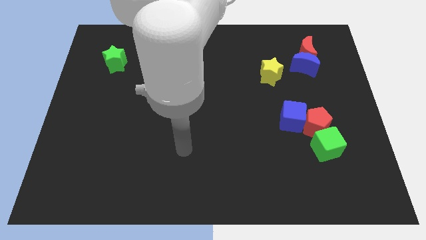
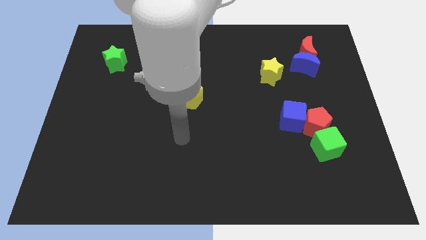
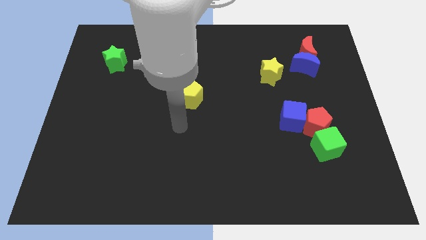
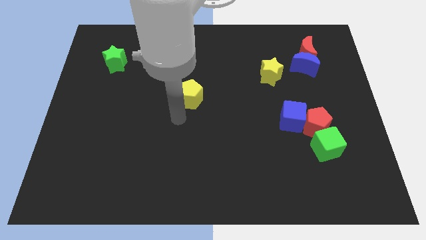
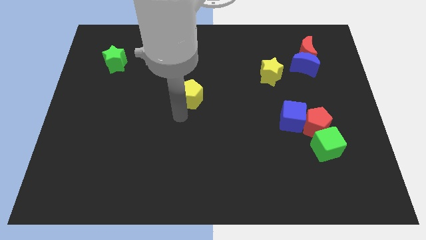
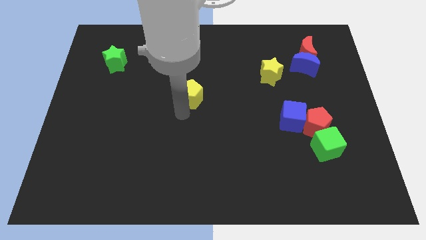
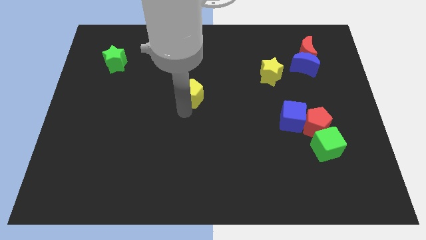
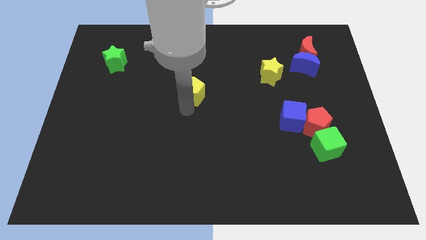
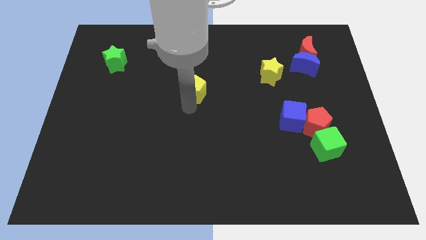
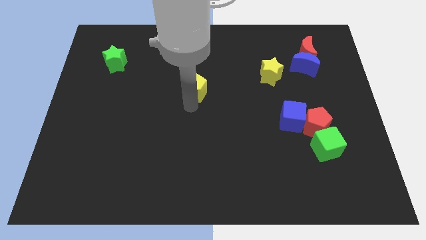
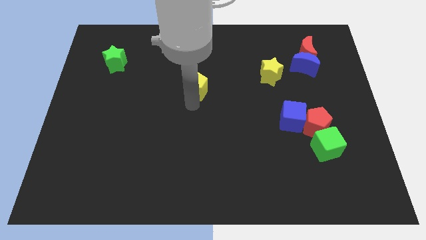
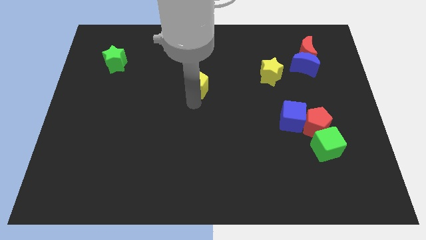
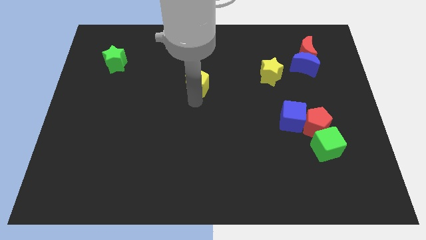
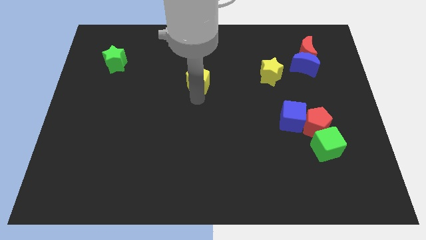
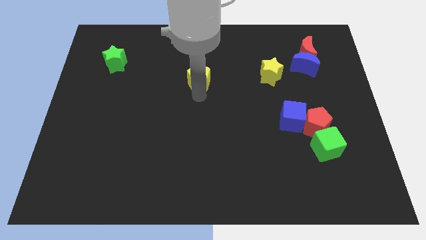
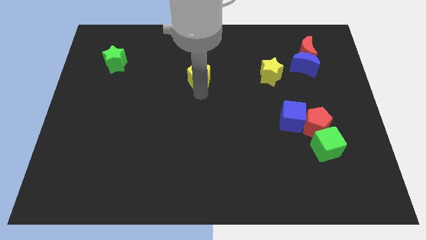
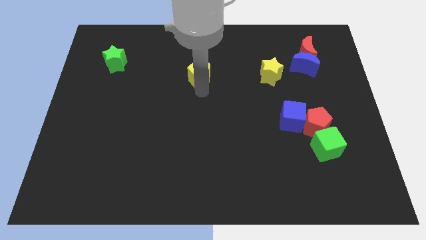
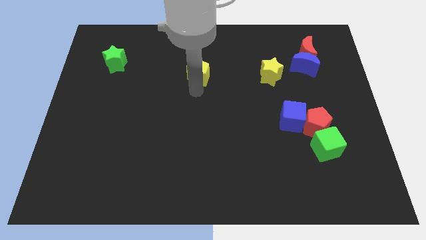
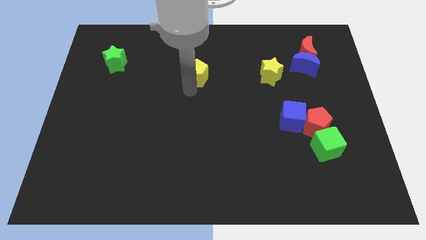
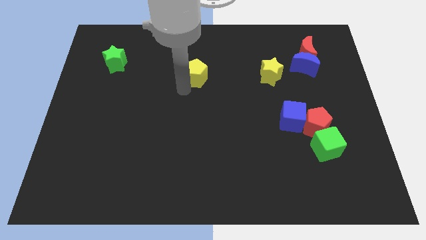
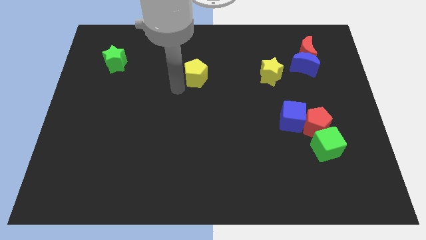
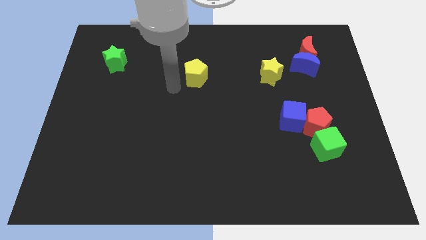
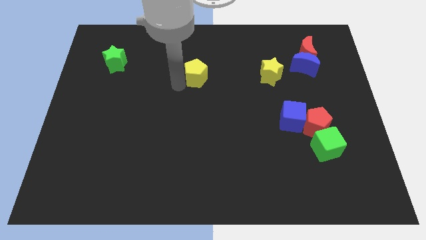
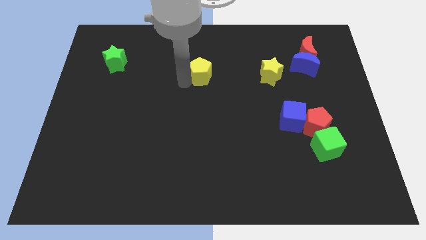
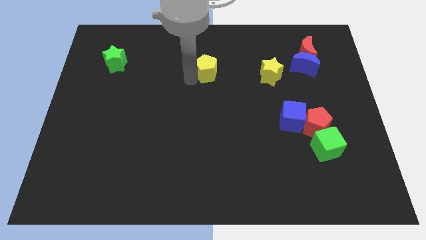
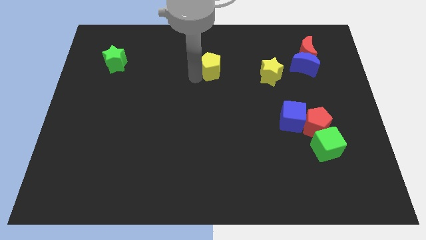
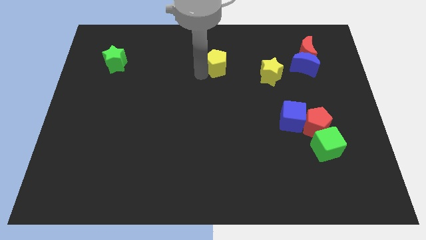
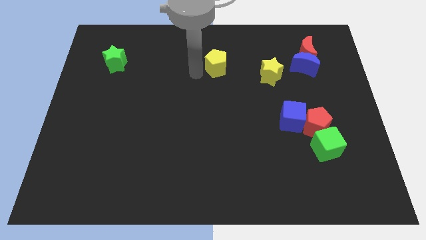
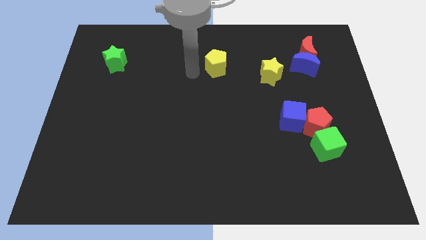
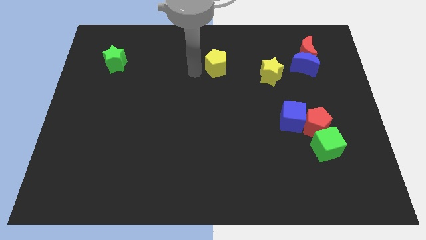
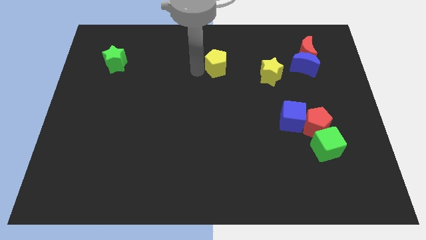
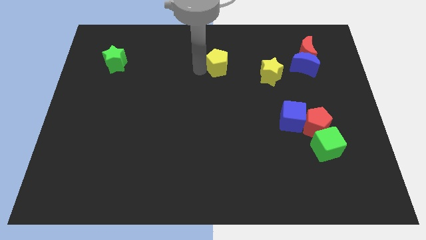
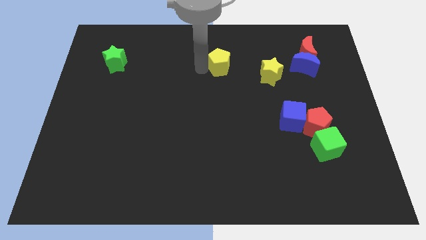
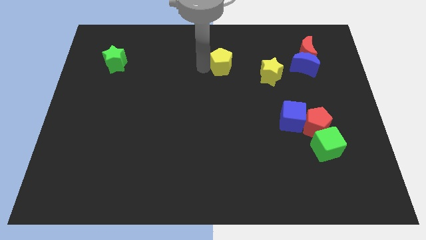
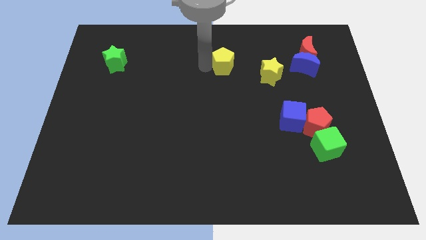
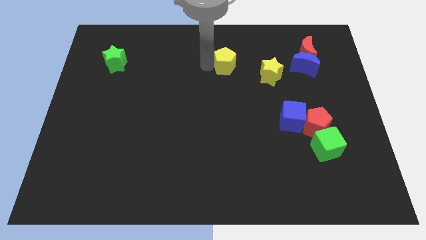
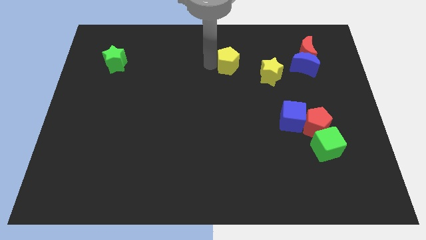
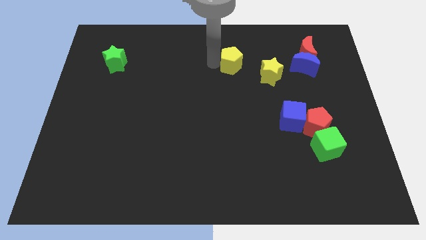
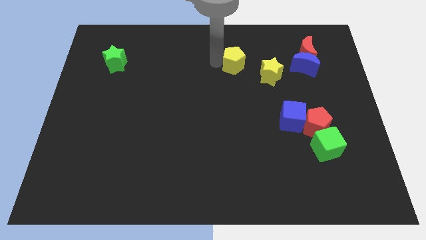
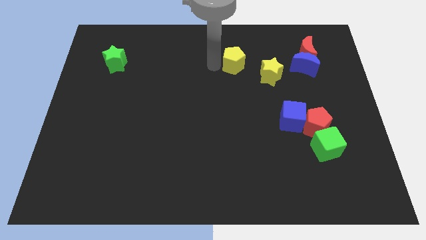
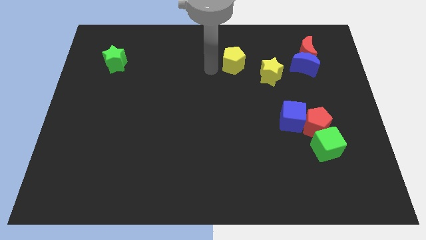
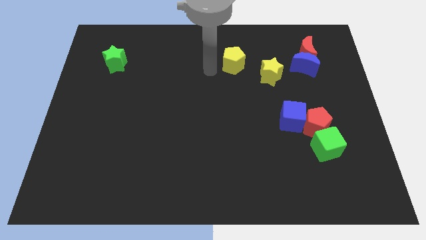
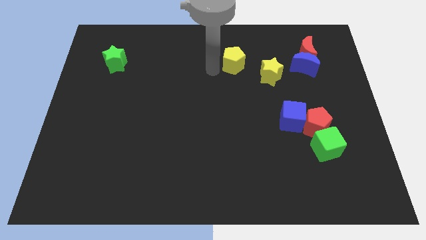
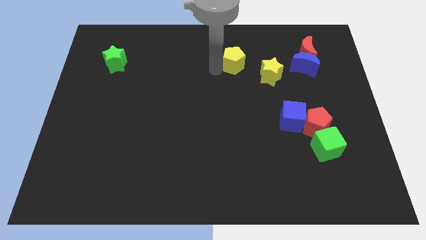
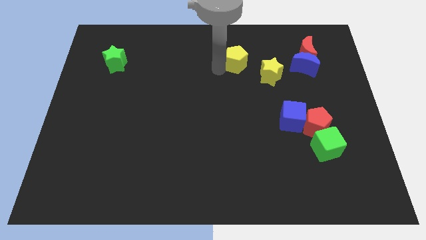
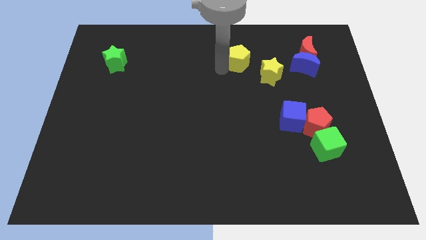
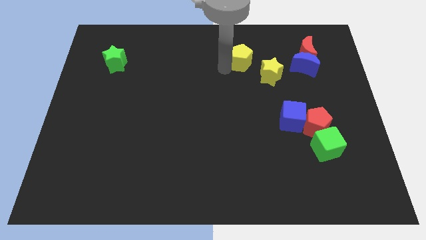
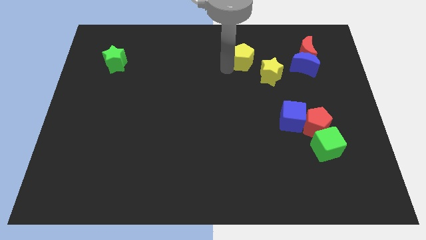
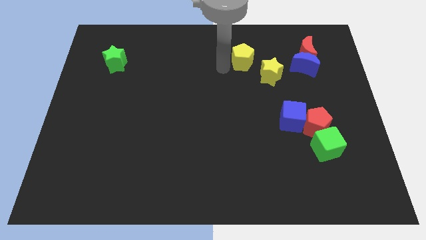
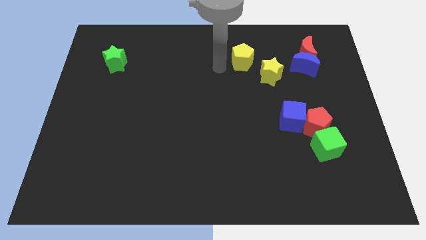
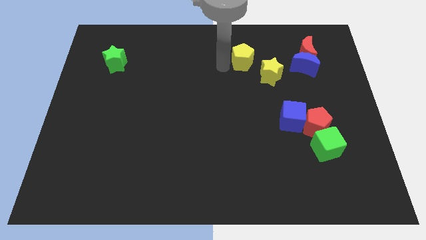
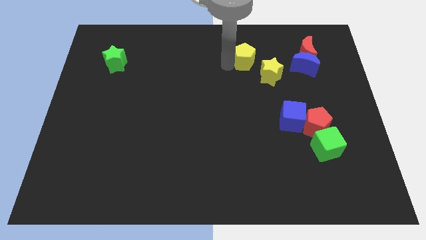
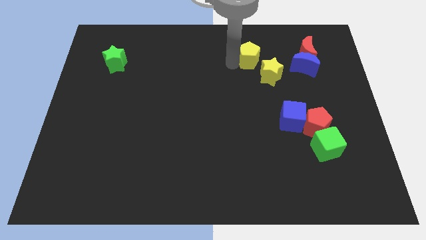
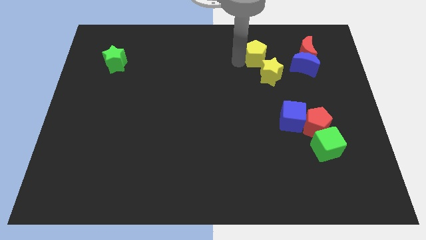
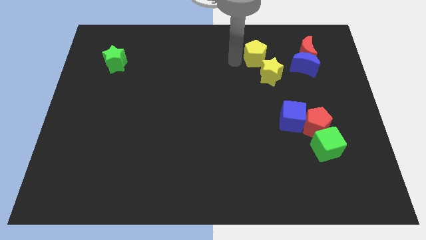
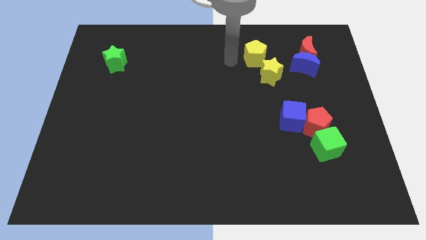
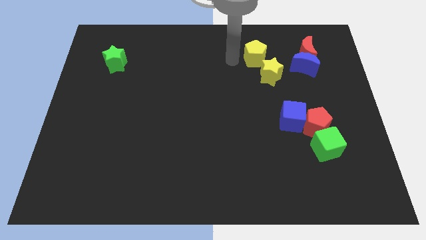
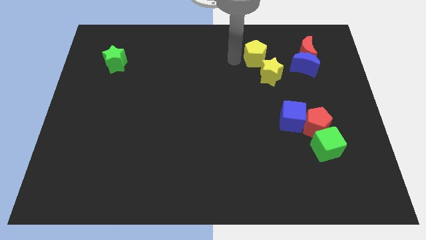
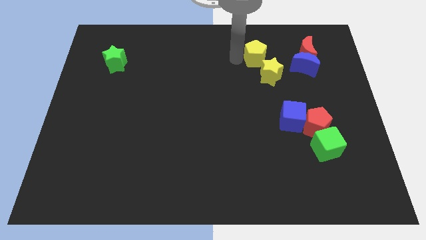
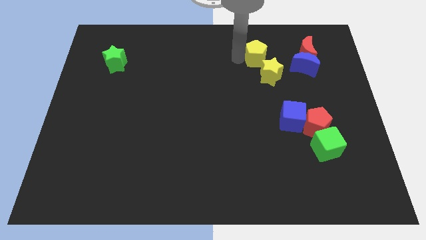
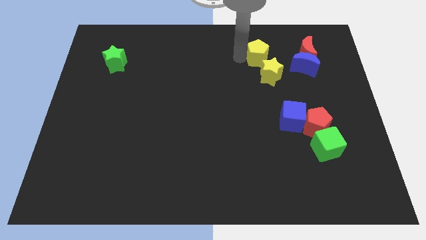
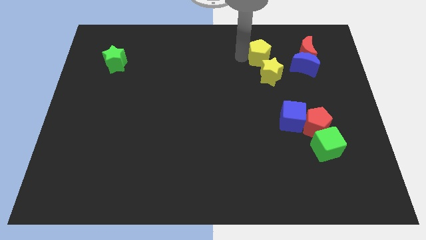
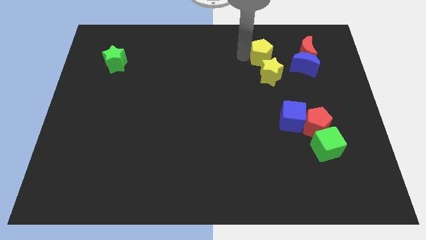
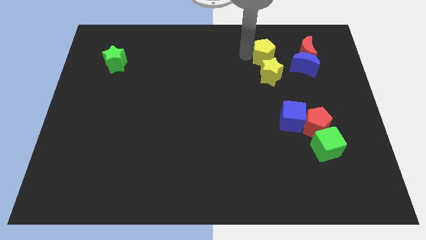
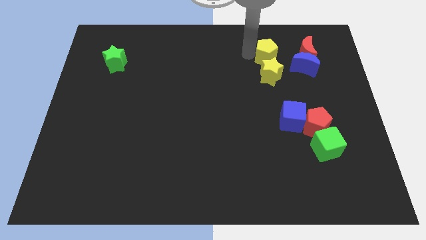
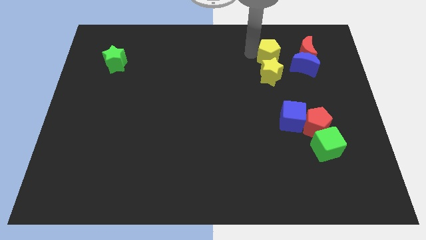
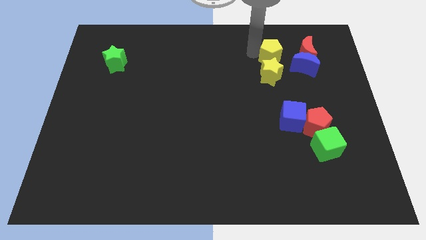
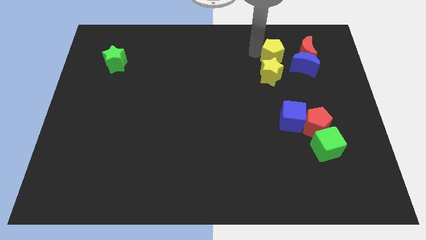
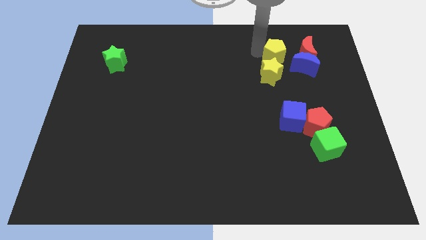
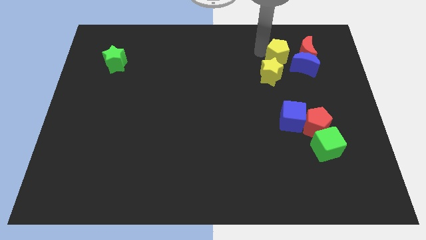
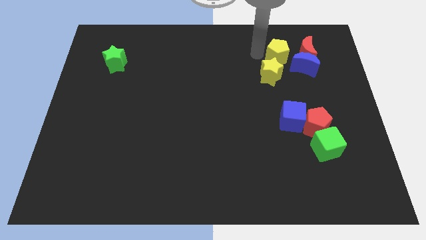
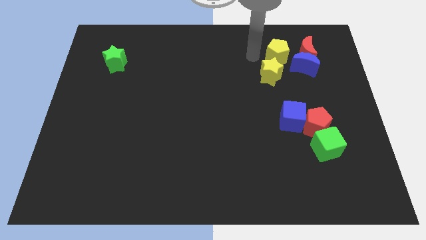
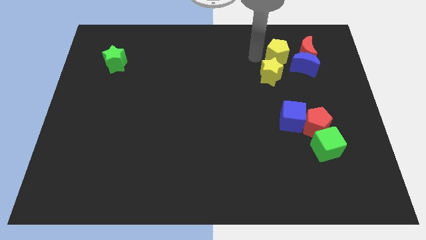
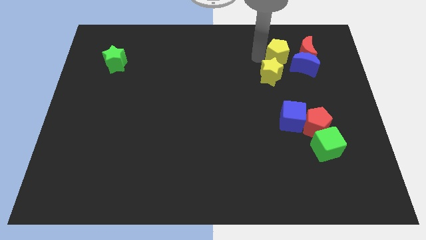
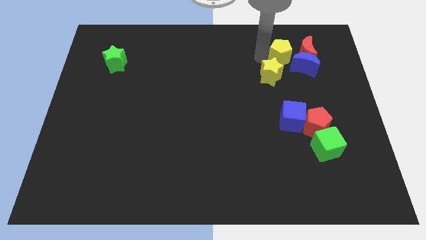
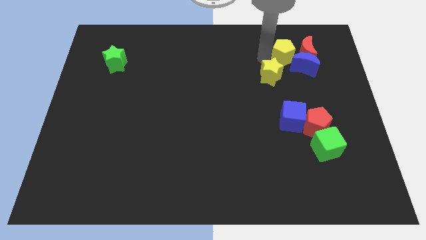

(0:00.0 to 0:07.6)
move the yellow pentagon towards the red moon
